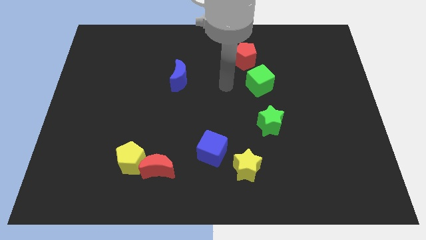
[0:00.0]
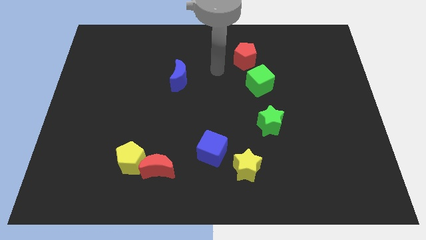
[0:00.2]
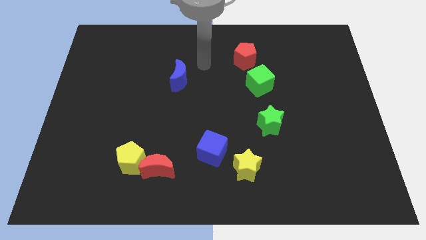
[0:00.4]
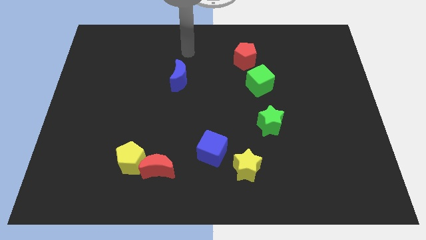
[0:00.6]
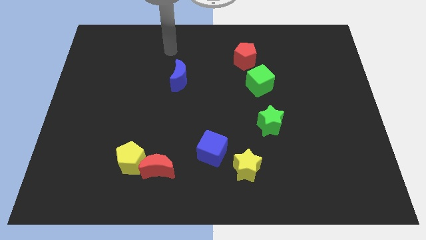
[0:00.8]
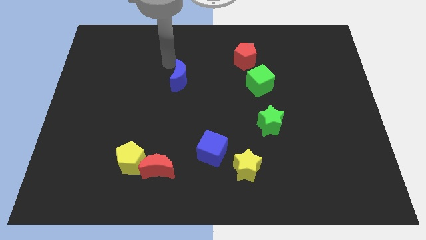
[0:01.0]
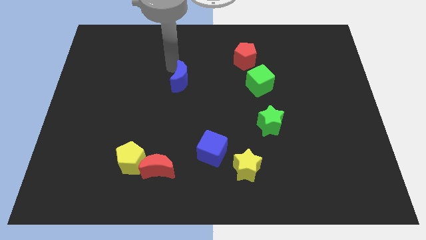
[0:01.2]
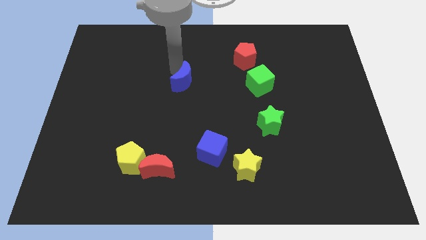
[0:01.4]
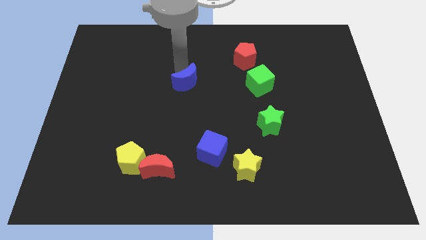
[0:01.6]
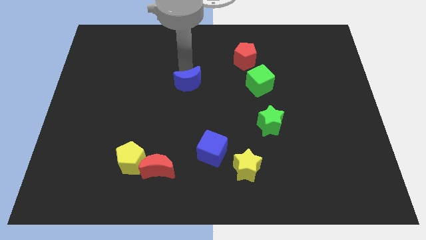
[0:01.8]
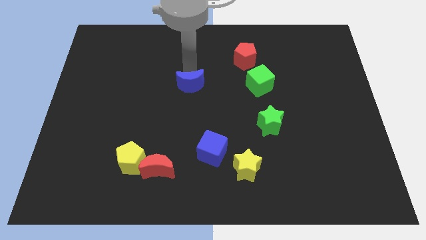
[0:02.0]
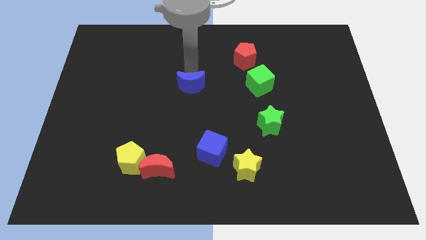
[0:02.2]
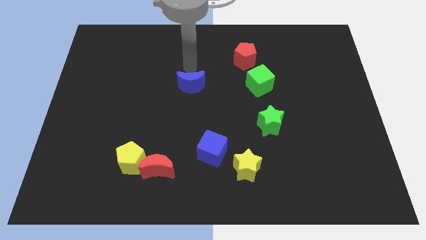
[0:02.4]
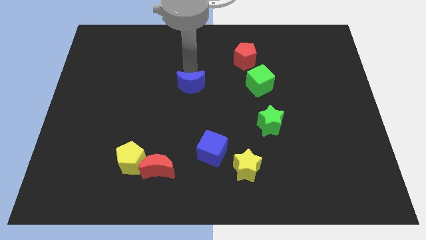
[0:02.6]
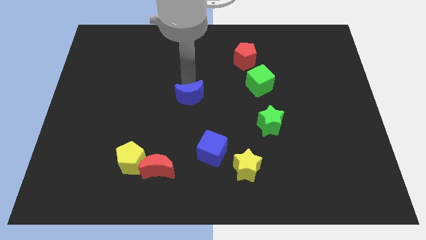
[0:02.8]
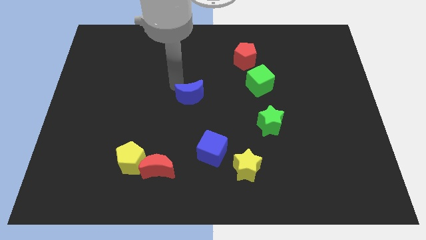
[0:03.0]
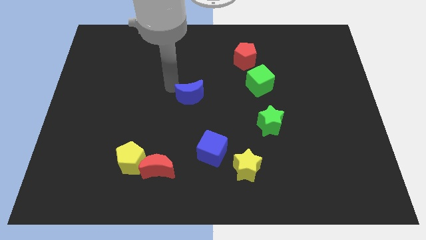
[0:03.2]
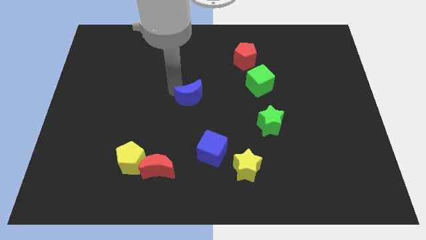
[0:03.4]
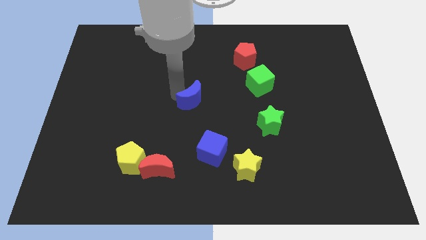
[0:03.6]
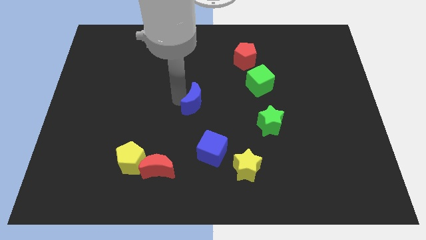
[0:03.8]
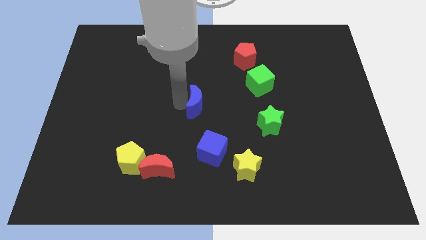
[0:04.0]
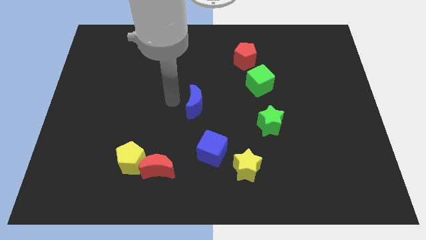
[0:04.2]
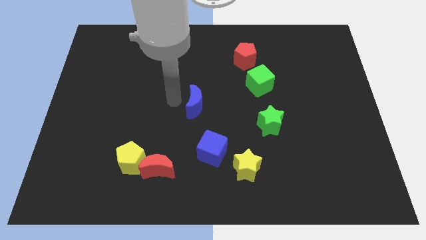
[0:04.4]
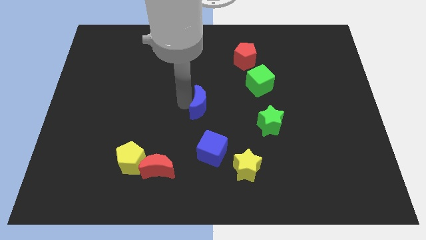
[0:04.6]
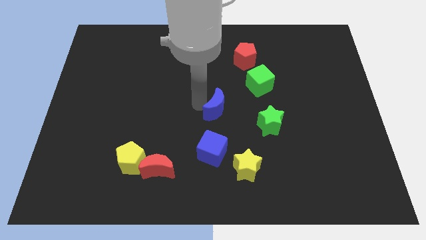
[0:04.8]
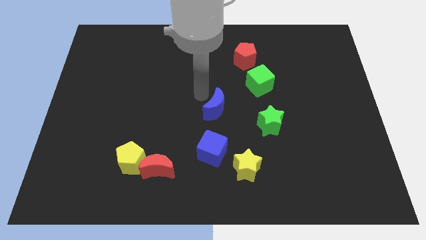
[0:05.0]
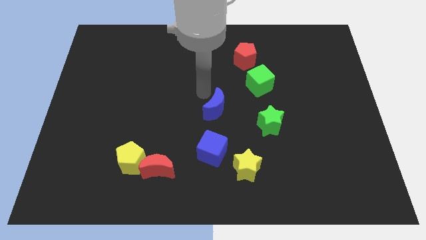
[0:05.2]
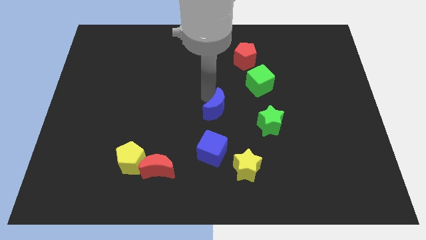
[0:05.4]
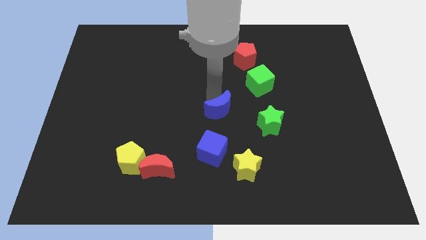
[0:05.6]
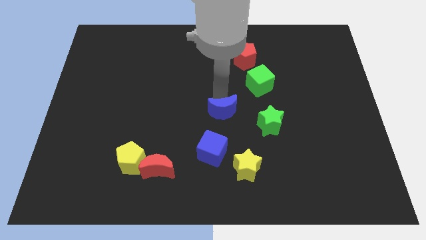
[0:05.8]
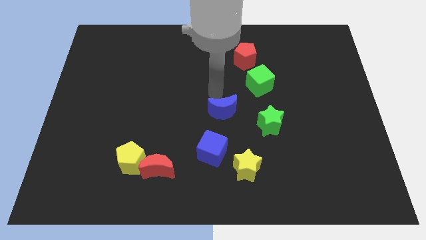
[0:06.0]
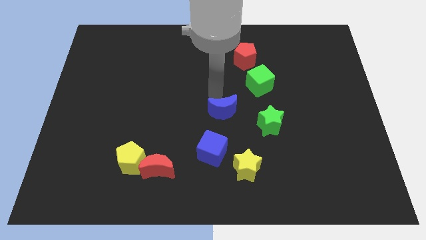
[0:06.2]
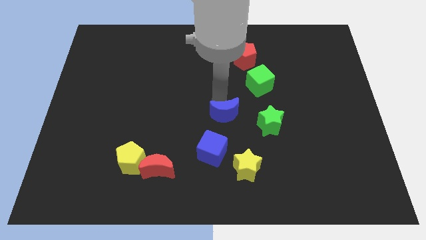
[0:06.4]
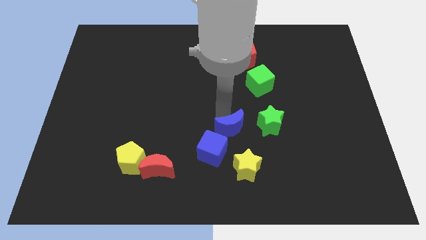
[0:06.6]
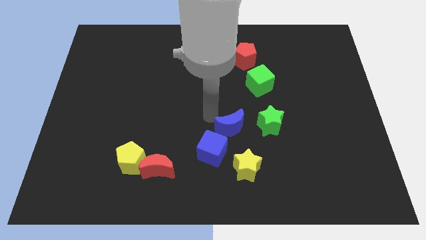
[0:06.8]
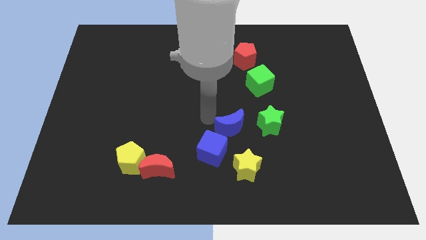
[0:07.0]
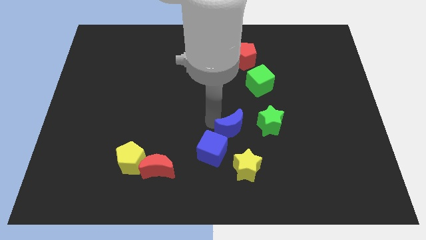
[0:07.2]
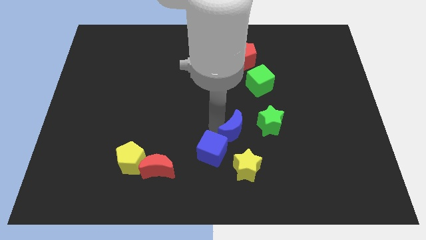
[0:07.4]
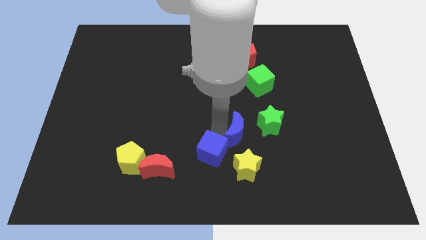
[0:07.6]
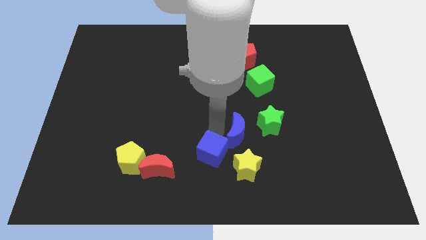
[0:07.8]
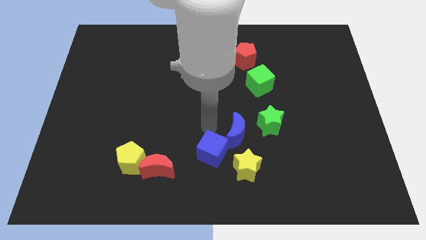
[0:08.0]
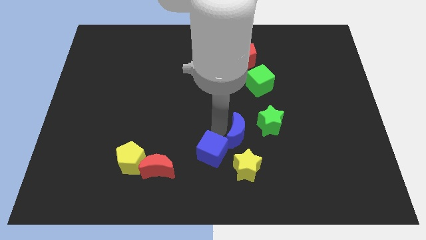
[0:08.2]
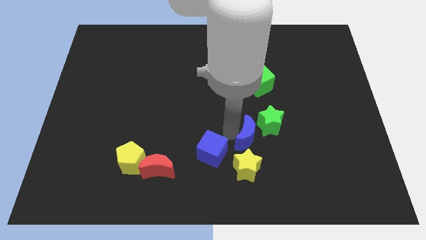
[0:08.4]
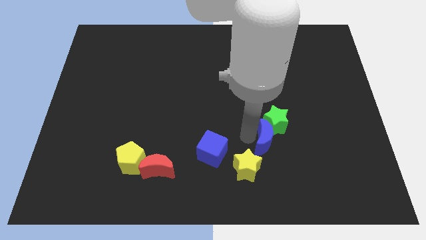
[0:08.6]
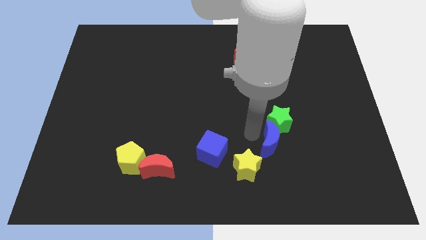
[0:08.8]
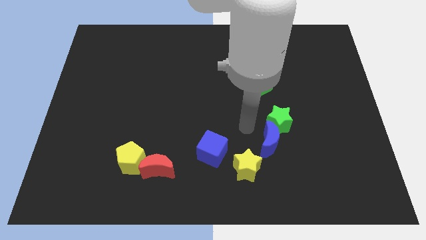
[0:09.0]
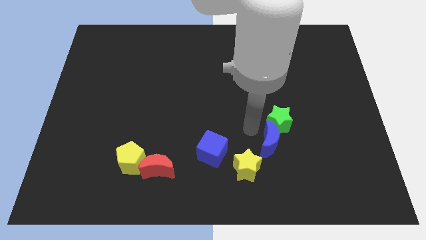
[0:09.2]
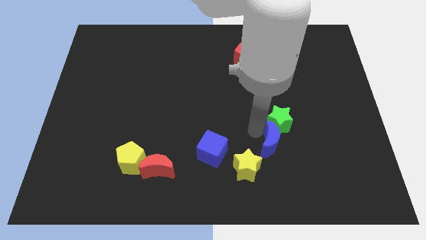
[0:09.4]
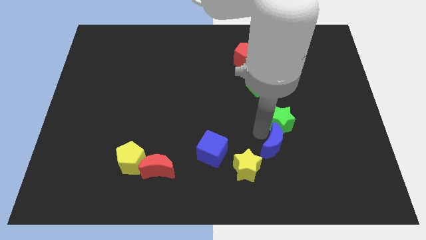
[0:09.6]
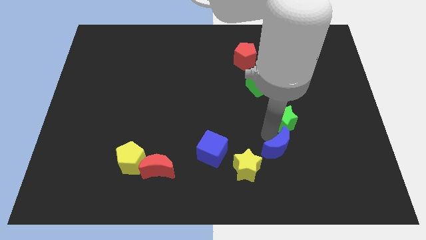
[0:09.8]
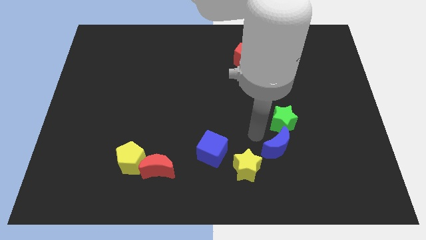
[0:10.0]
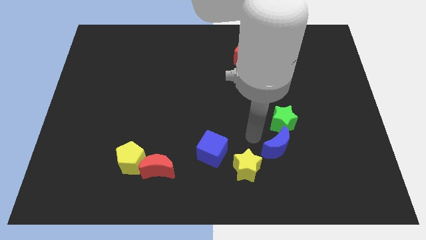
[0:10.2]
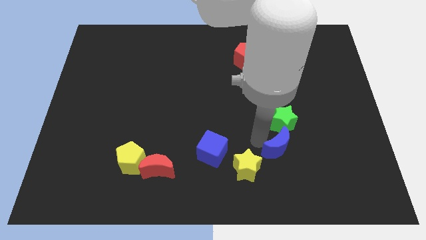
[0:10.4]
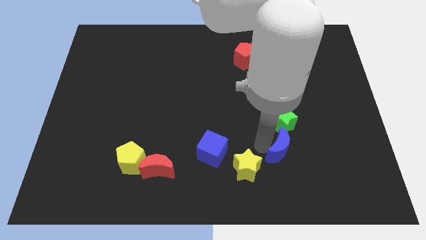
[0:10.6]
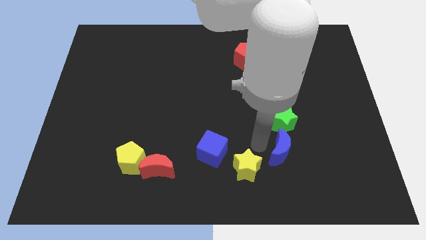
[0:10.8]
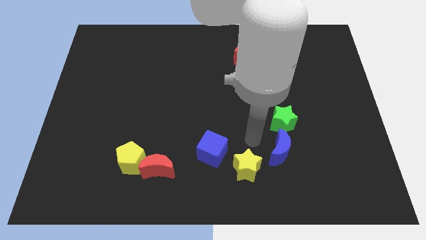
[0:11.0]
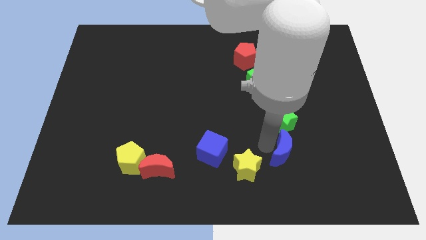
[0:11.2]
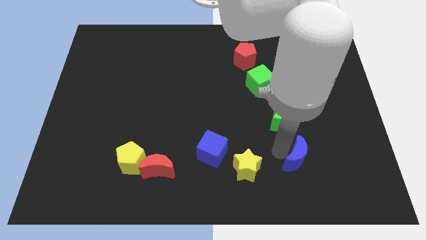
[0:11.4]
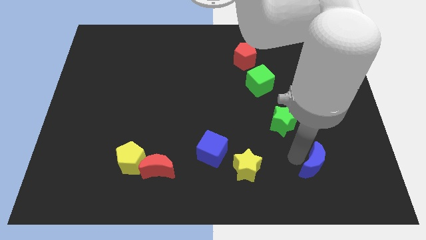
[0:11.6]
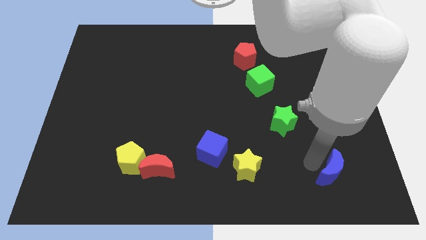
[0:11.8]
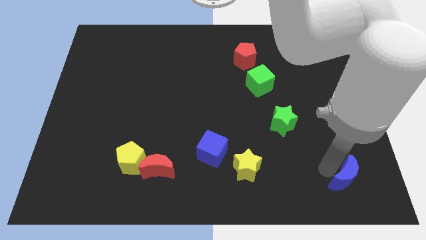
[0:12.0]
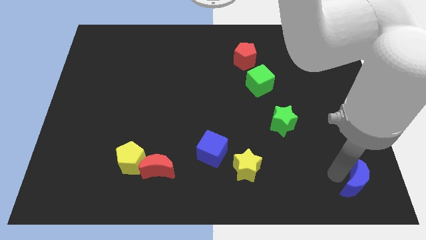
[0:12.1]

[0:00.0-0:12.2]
move the blue moon to the bottom right

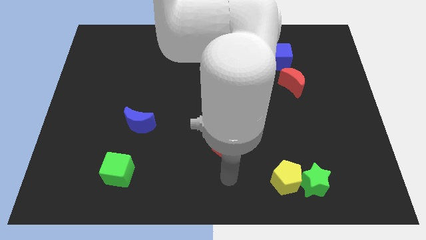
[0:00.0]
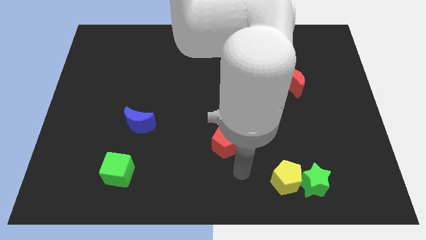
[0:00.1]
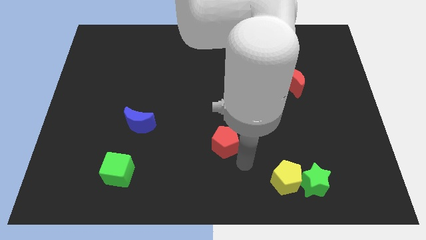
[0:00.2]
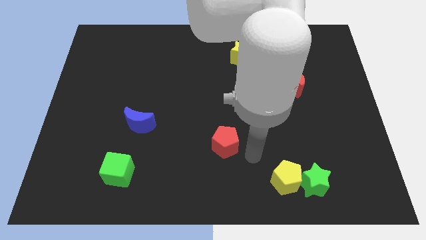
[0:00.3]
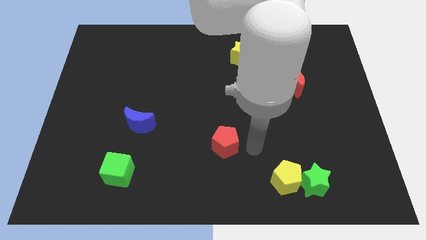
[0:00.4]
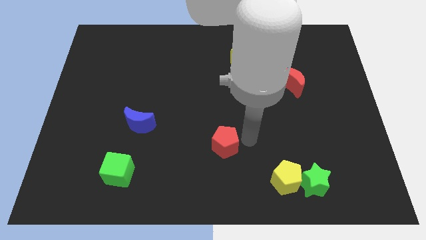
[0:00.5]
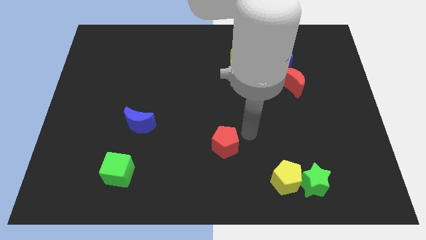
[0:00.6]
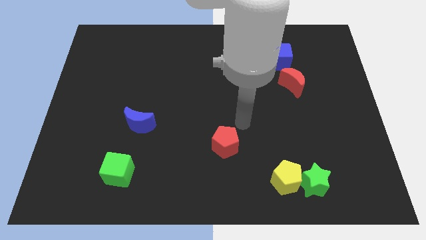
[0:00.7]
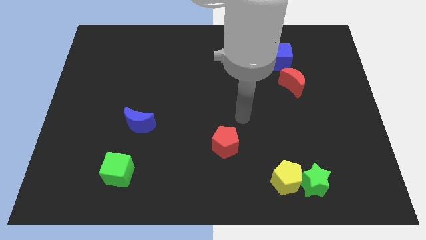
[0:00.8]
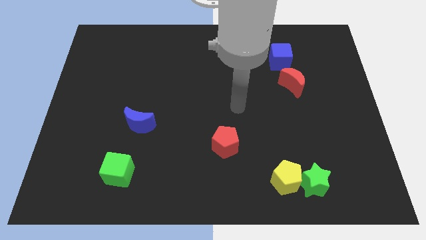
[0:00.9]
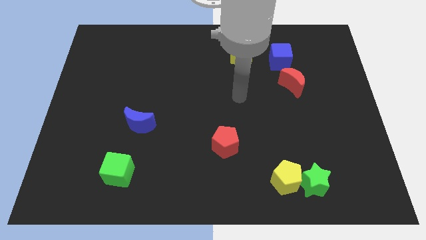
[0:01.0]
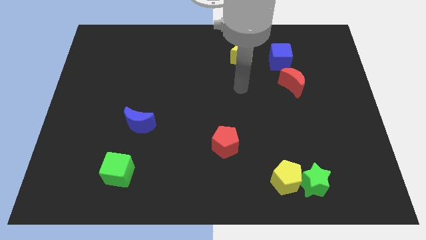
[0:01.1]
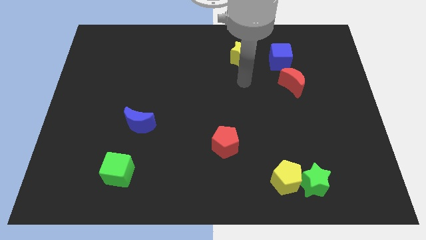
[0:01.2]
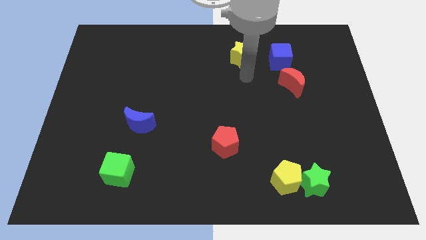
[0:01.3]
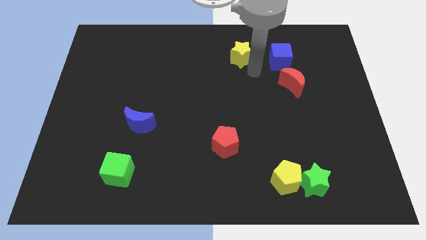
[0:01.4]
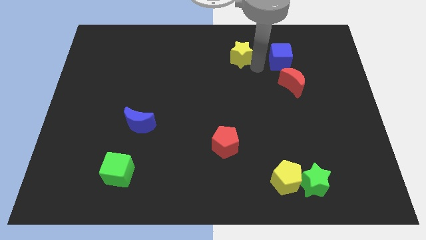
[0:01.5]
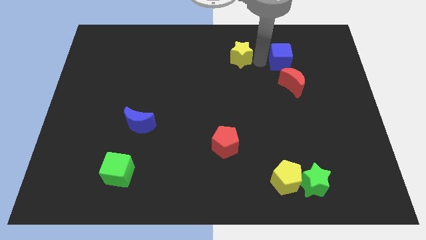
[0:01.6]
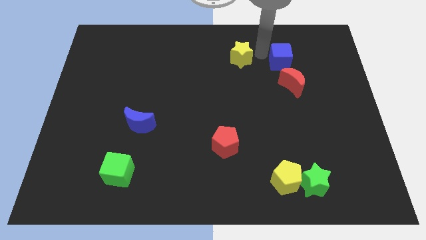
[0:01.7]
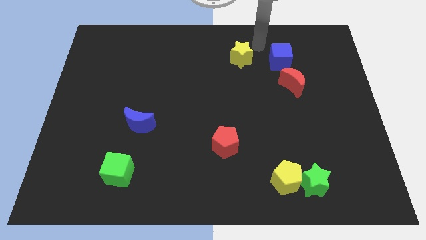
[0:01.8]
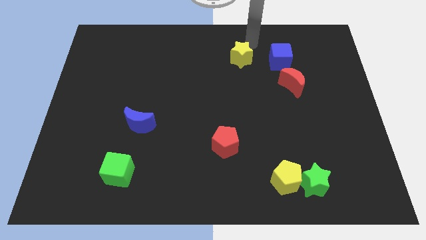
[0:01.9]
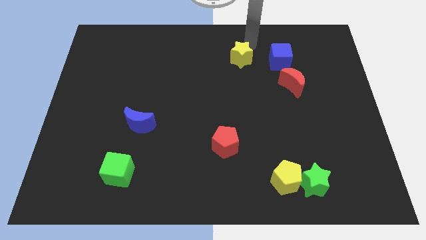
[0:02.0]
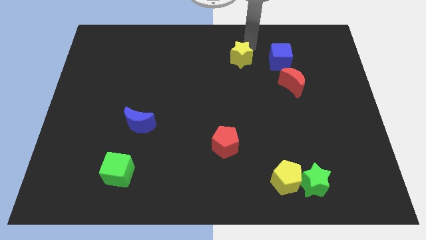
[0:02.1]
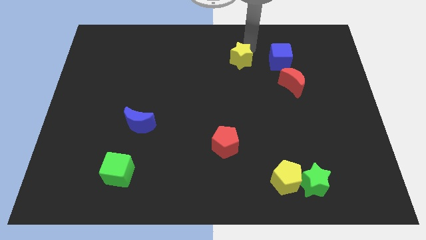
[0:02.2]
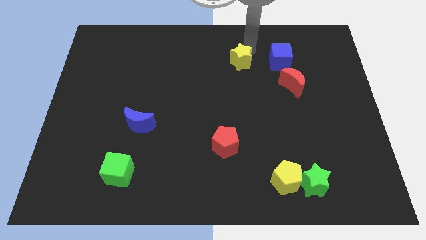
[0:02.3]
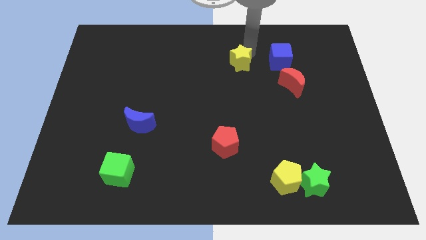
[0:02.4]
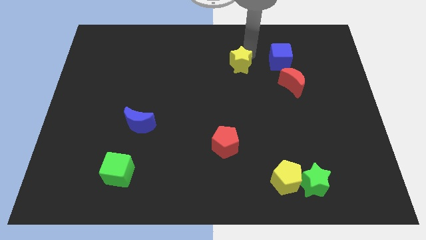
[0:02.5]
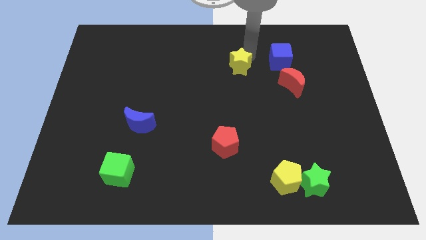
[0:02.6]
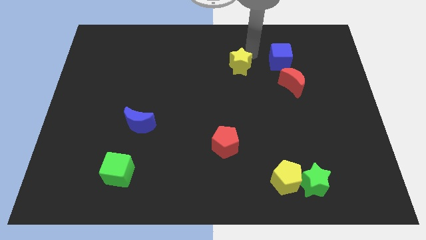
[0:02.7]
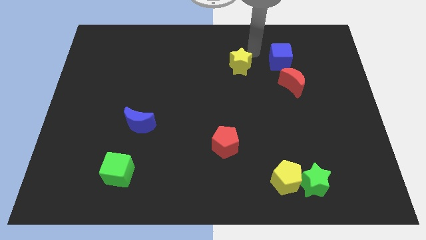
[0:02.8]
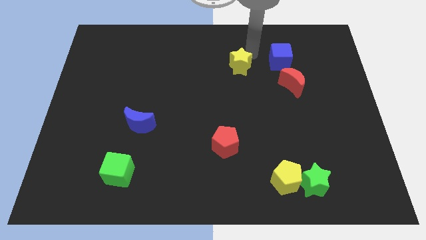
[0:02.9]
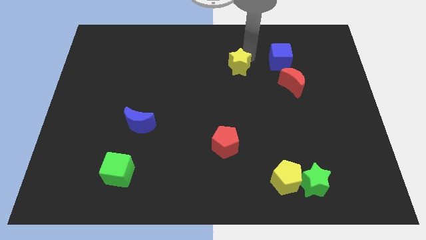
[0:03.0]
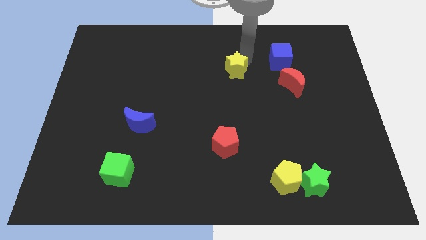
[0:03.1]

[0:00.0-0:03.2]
slide the yellow star to the center
